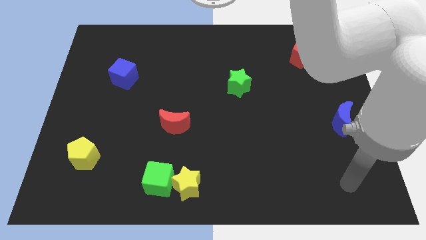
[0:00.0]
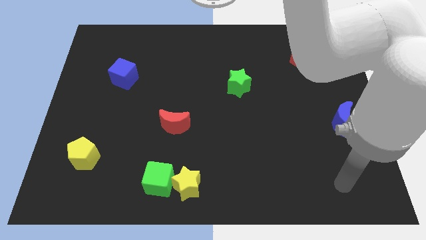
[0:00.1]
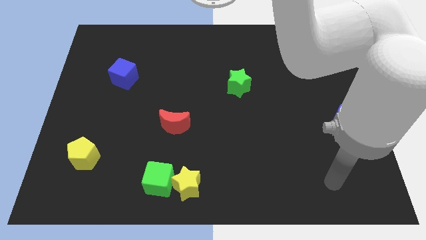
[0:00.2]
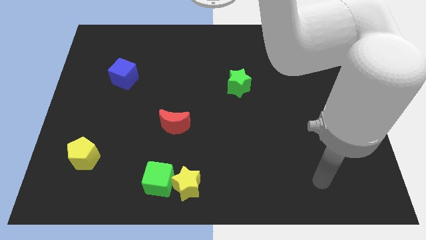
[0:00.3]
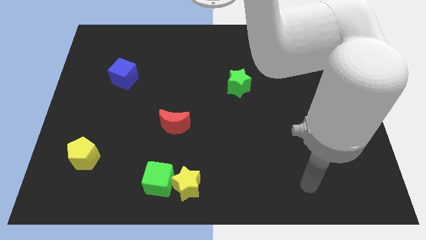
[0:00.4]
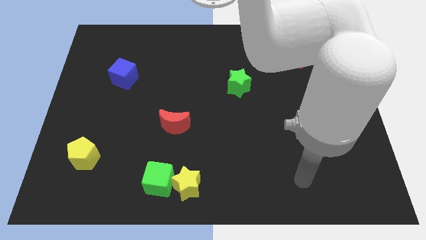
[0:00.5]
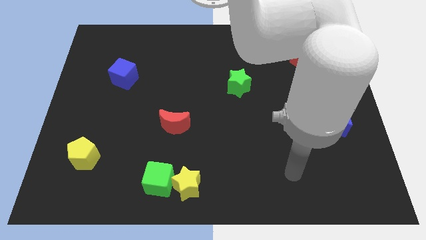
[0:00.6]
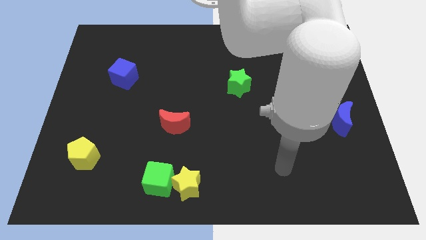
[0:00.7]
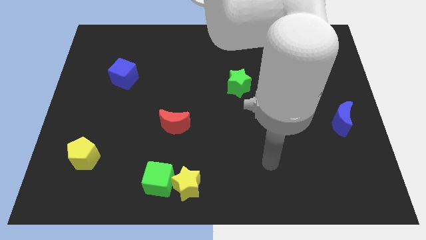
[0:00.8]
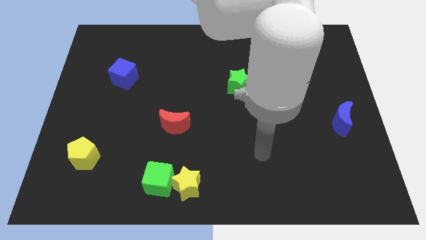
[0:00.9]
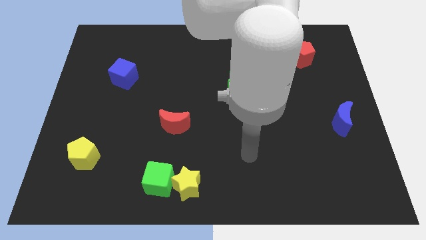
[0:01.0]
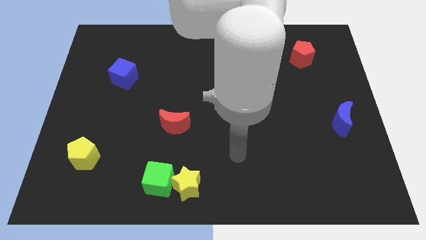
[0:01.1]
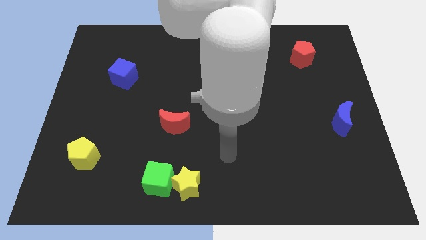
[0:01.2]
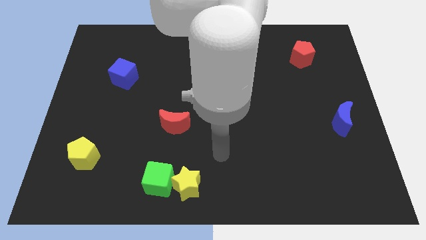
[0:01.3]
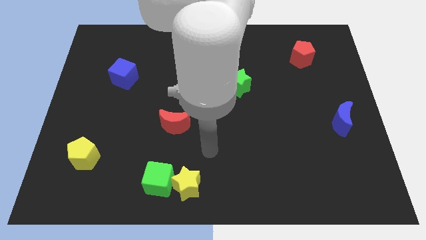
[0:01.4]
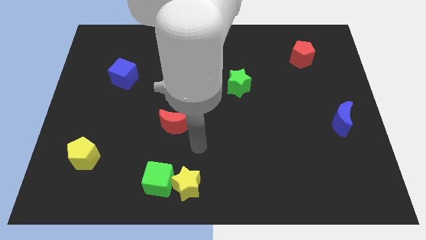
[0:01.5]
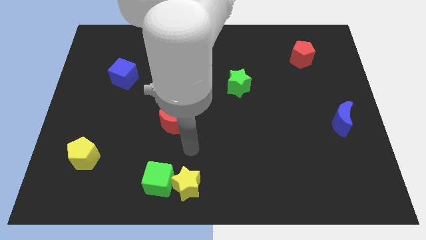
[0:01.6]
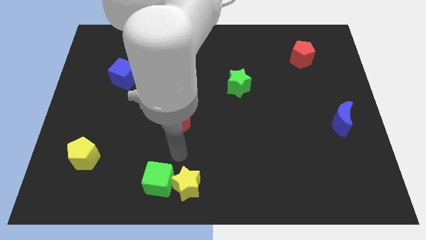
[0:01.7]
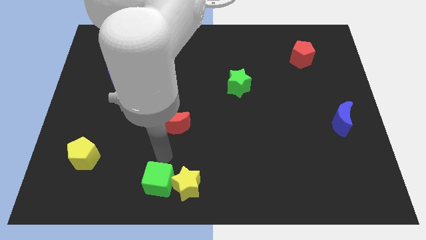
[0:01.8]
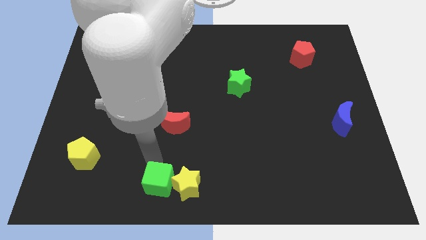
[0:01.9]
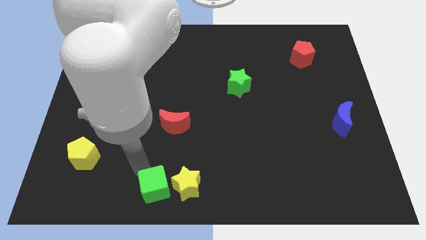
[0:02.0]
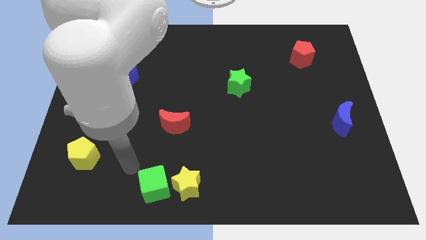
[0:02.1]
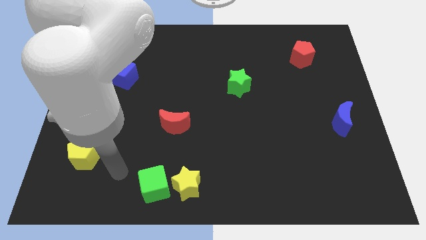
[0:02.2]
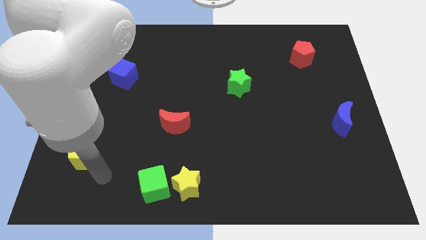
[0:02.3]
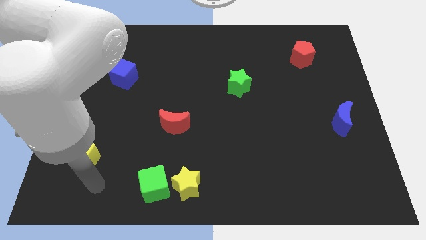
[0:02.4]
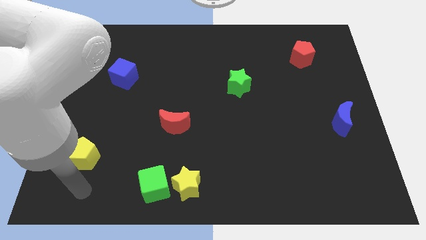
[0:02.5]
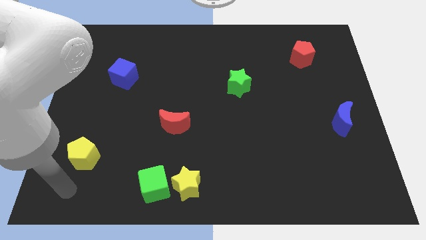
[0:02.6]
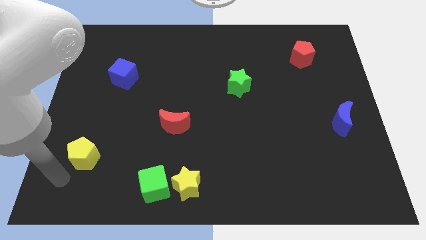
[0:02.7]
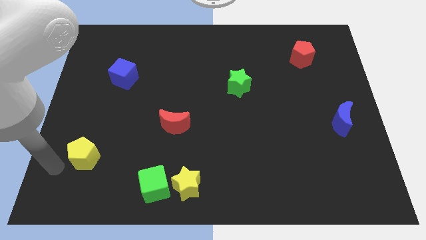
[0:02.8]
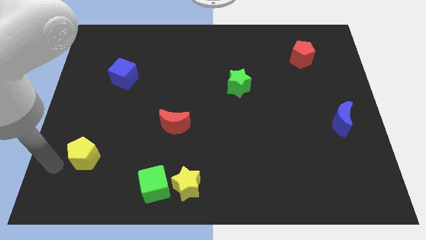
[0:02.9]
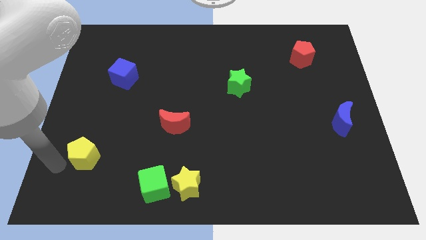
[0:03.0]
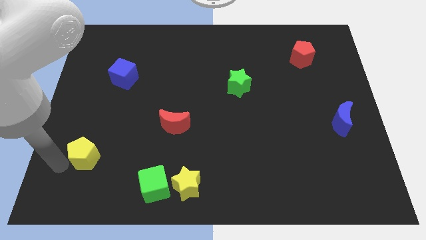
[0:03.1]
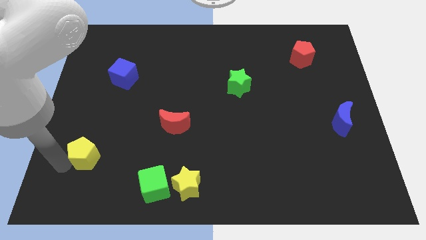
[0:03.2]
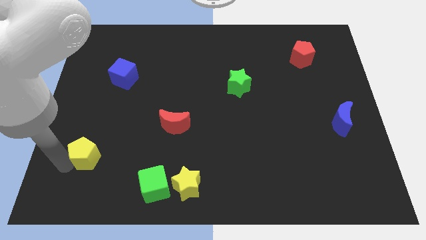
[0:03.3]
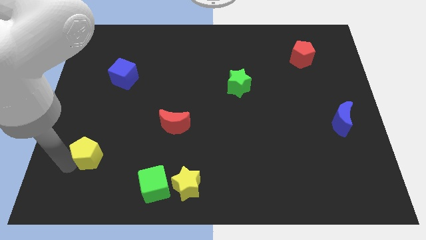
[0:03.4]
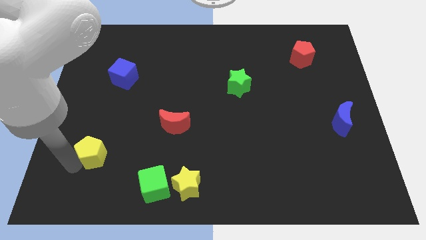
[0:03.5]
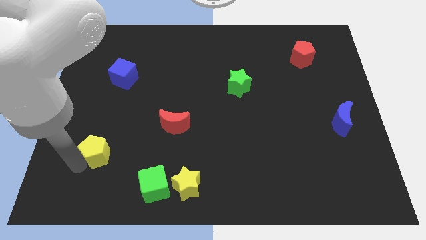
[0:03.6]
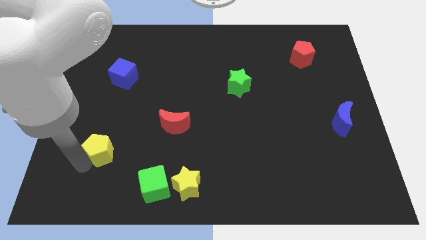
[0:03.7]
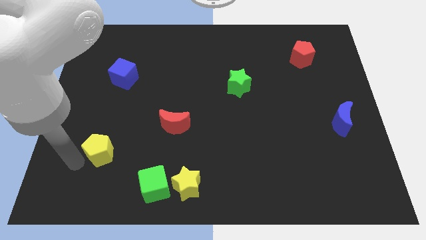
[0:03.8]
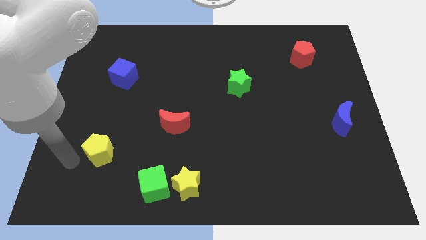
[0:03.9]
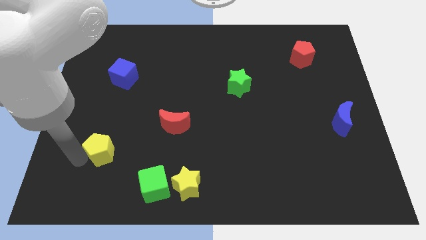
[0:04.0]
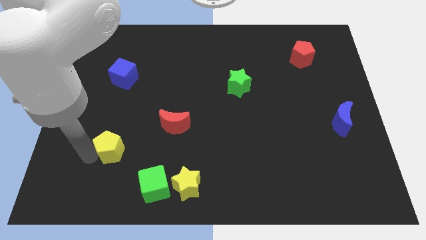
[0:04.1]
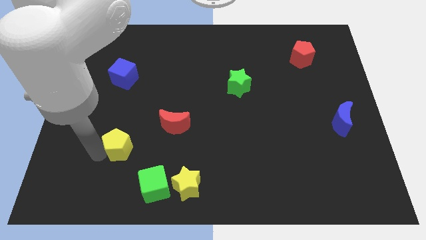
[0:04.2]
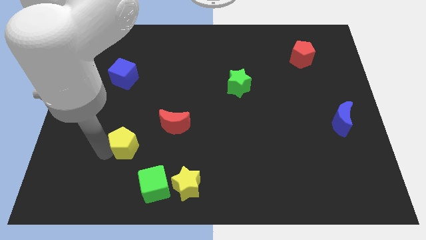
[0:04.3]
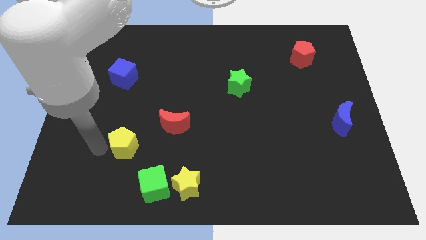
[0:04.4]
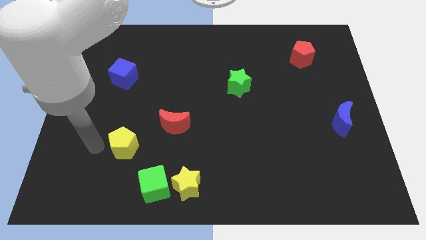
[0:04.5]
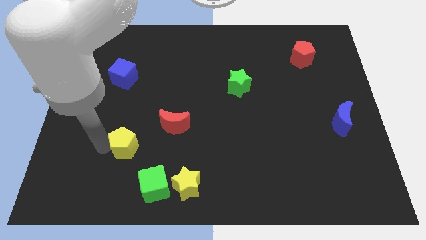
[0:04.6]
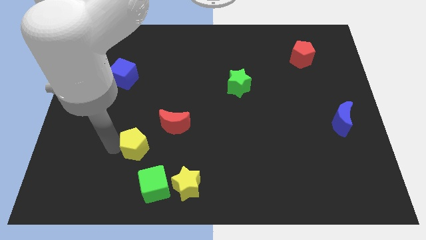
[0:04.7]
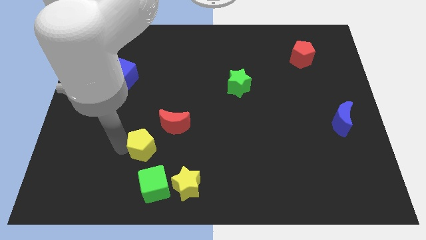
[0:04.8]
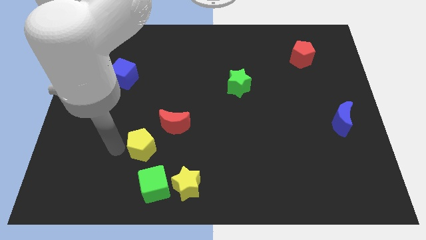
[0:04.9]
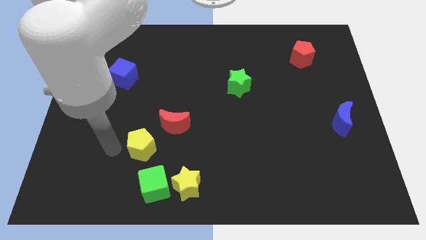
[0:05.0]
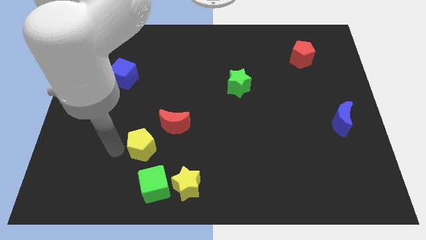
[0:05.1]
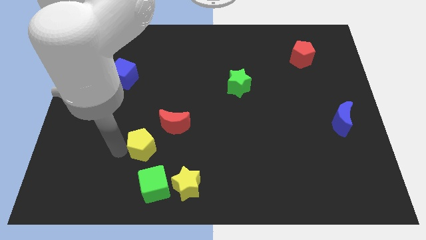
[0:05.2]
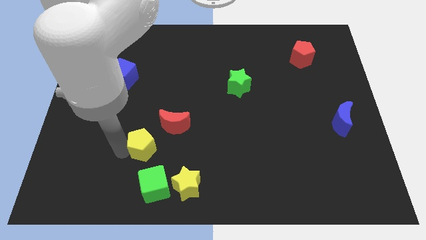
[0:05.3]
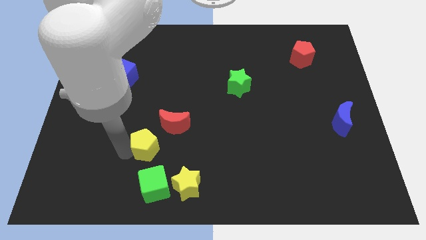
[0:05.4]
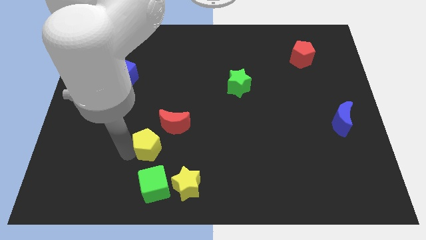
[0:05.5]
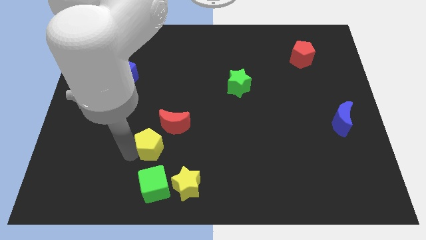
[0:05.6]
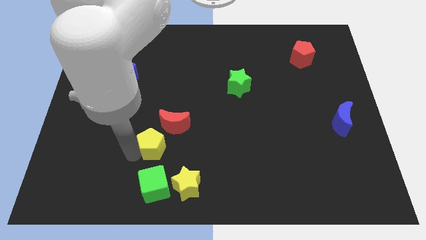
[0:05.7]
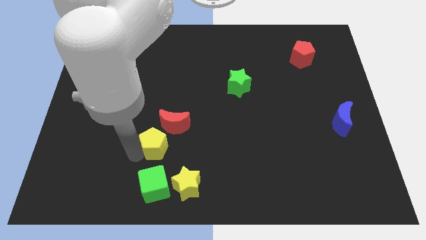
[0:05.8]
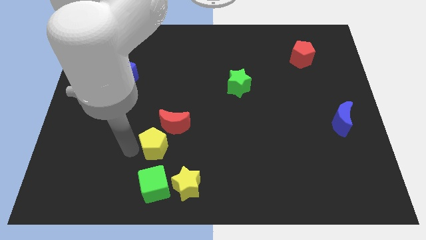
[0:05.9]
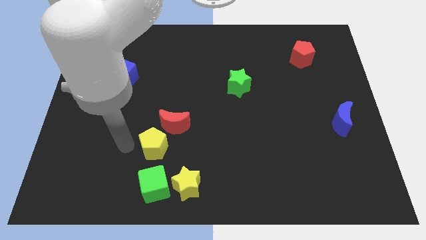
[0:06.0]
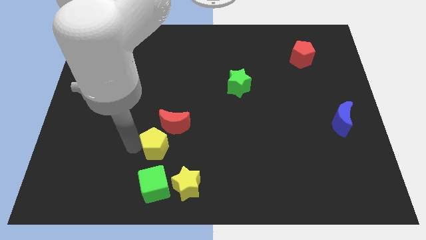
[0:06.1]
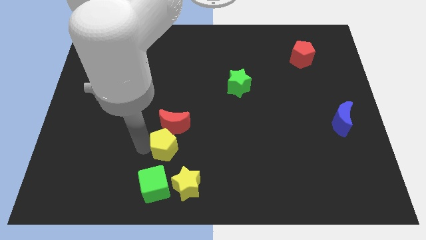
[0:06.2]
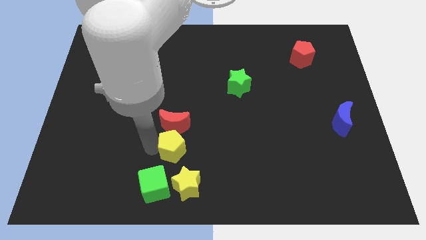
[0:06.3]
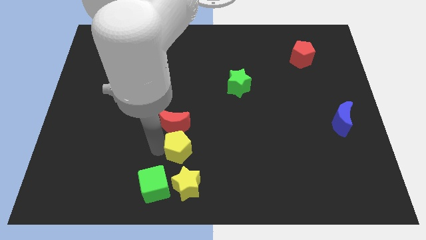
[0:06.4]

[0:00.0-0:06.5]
push the yellow pentagon to the right

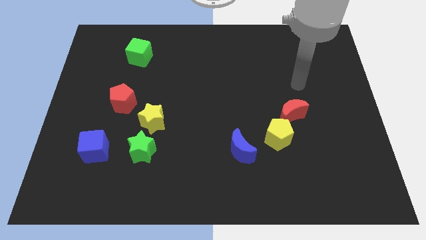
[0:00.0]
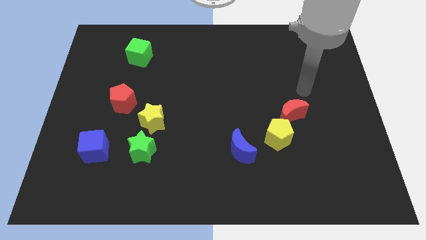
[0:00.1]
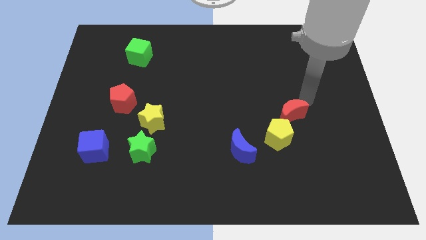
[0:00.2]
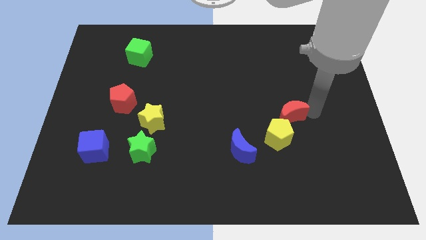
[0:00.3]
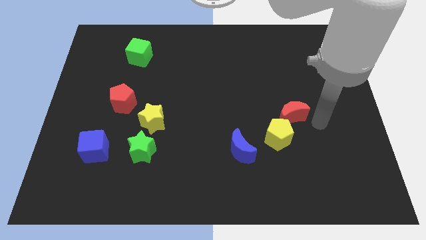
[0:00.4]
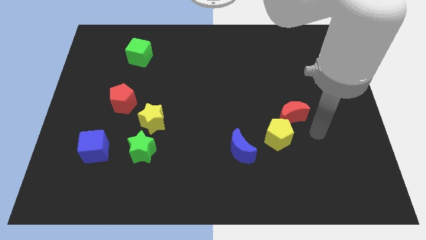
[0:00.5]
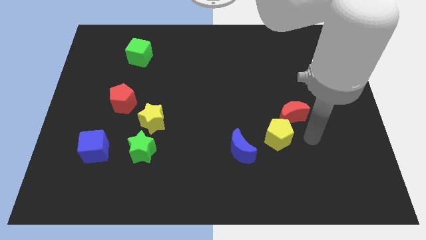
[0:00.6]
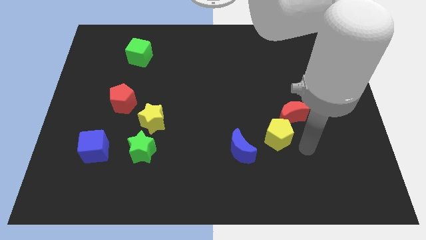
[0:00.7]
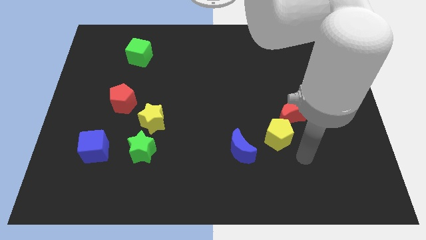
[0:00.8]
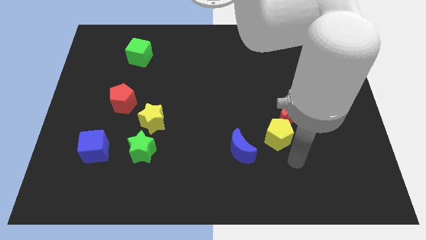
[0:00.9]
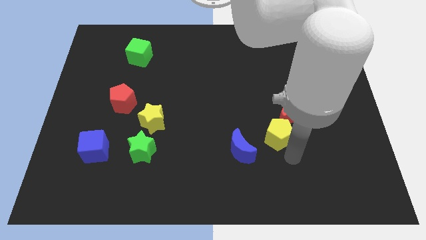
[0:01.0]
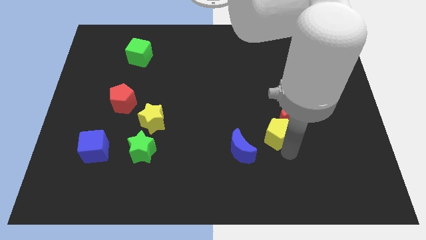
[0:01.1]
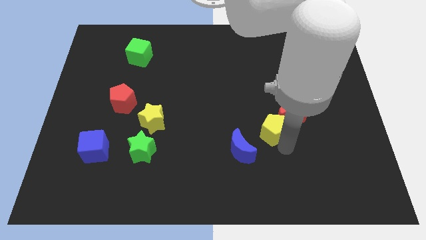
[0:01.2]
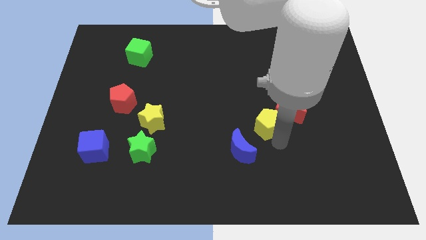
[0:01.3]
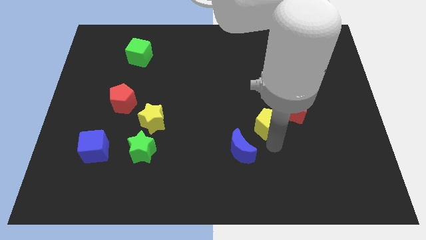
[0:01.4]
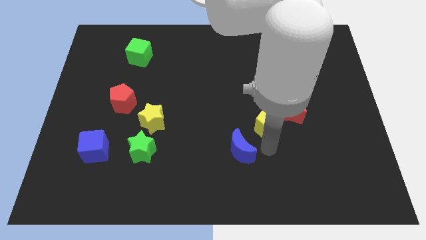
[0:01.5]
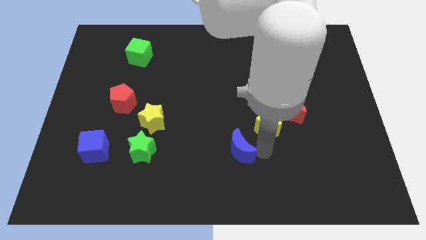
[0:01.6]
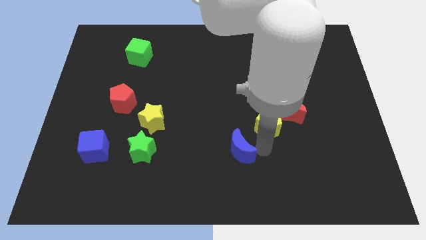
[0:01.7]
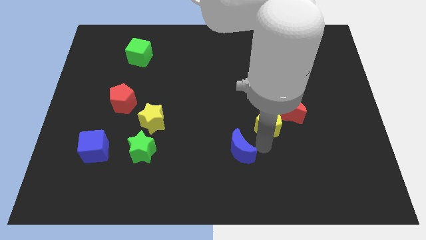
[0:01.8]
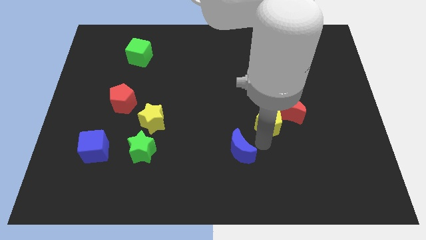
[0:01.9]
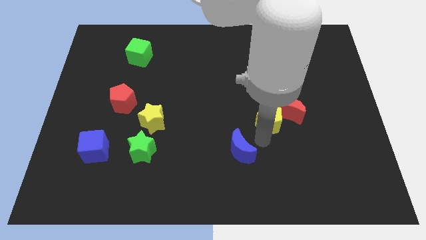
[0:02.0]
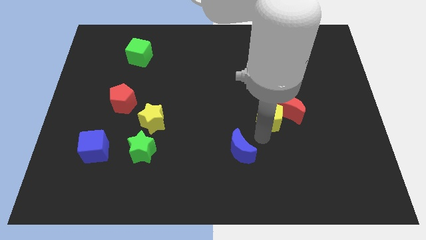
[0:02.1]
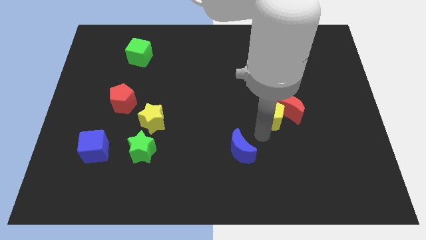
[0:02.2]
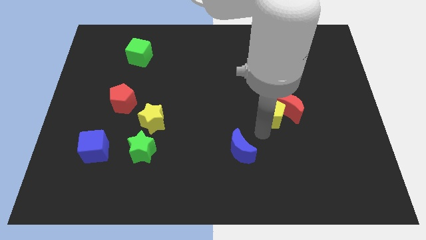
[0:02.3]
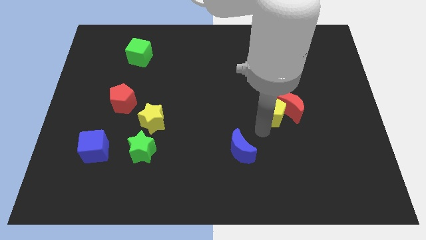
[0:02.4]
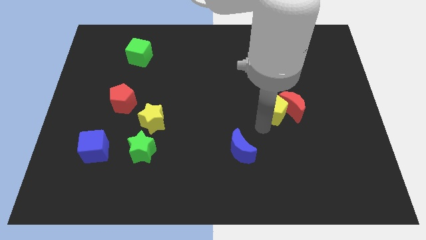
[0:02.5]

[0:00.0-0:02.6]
slightly slide the yellow pentagon upwards
